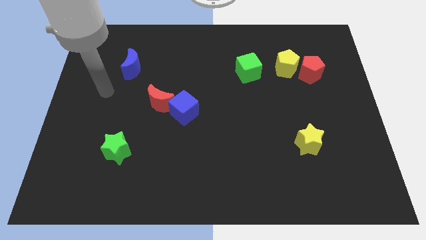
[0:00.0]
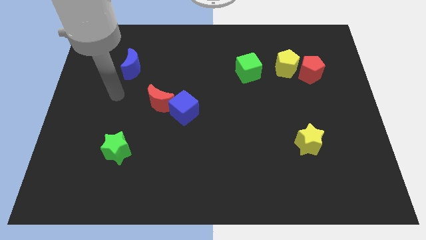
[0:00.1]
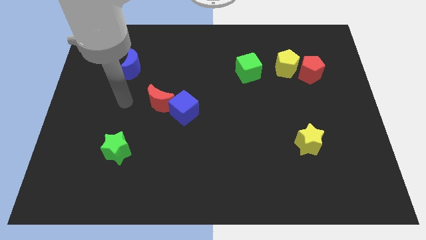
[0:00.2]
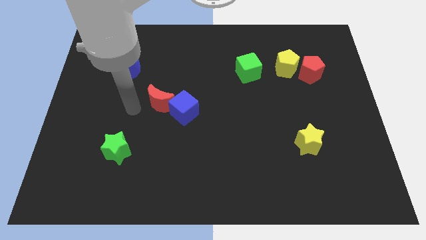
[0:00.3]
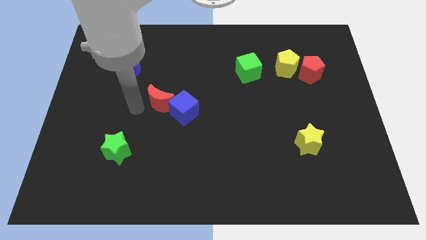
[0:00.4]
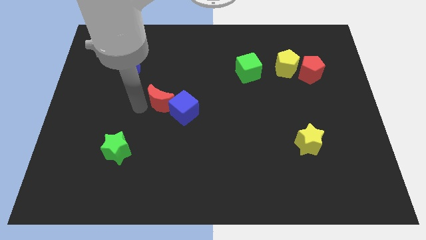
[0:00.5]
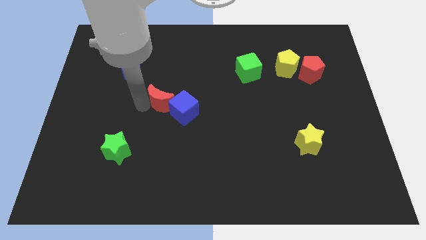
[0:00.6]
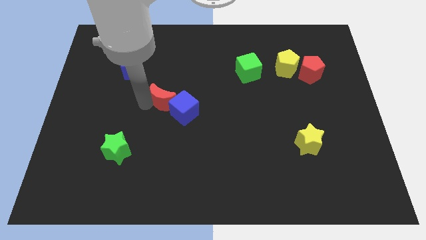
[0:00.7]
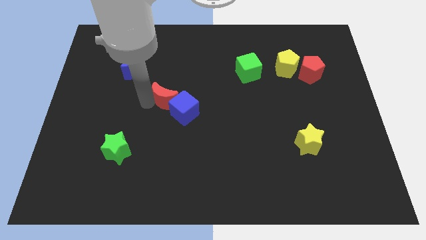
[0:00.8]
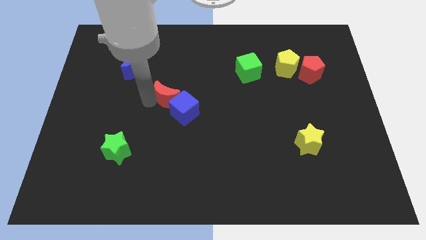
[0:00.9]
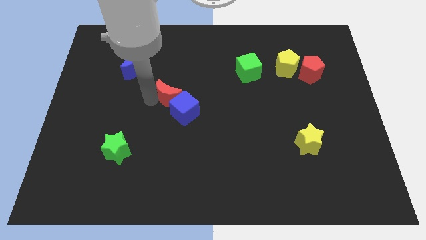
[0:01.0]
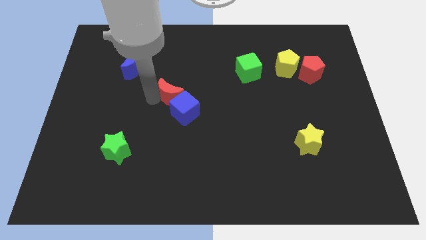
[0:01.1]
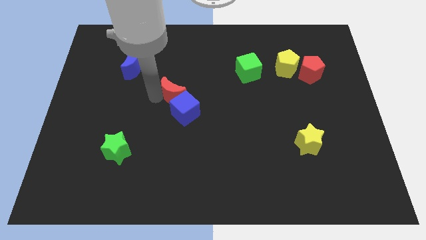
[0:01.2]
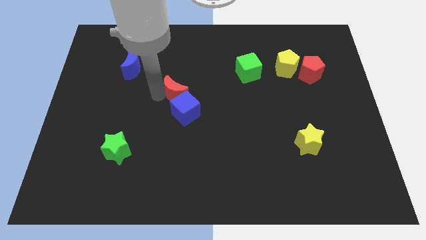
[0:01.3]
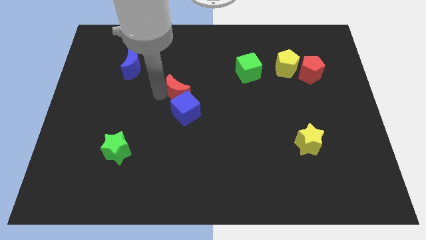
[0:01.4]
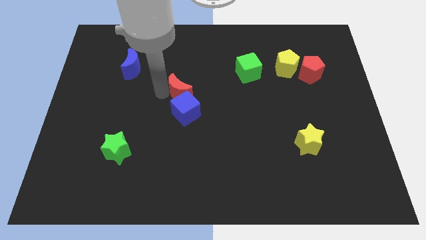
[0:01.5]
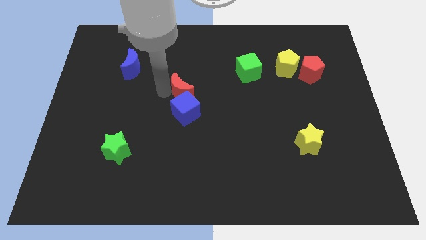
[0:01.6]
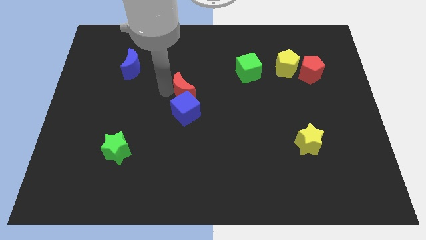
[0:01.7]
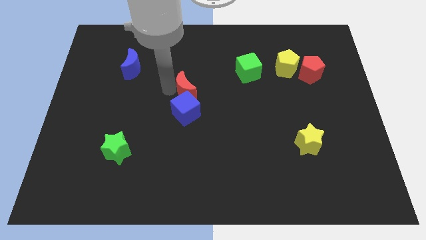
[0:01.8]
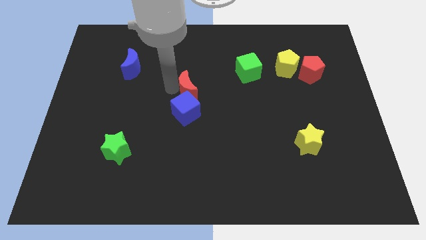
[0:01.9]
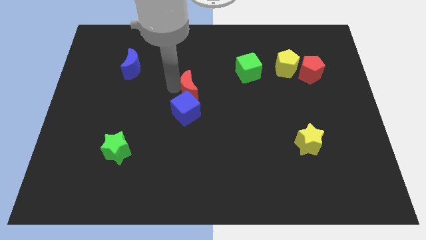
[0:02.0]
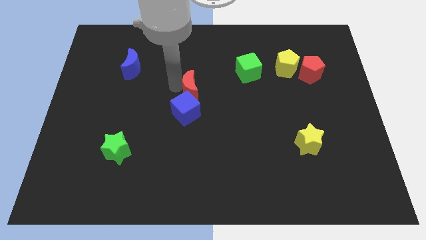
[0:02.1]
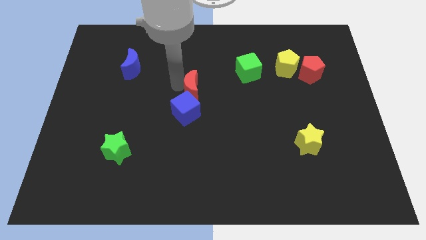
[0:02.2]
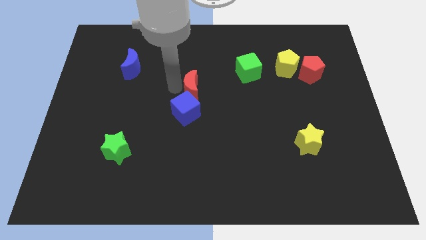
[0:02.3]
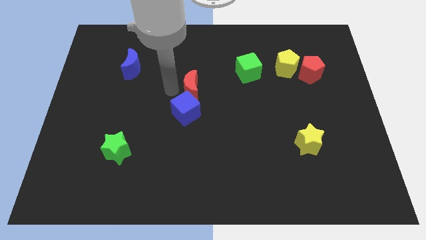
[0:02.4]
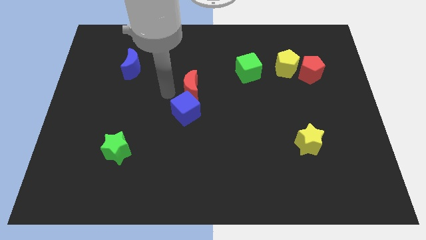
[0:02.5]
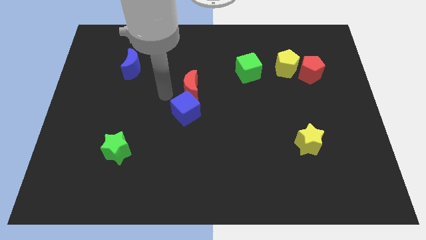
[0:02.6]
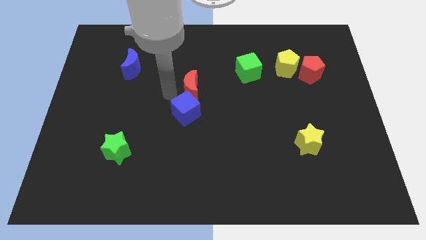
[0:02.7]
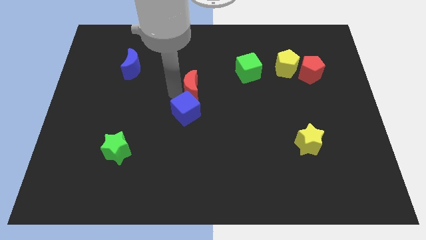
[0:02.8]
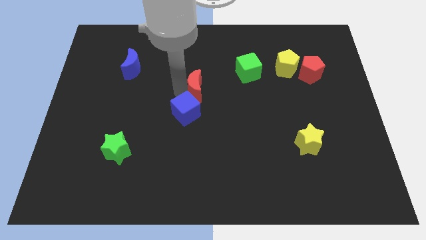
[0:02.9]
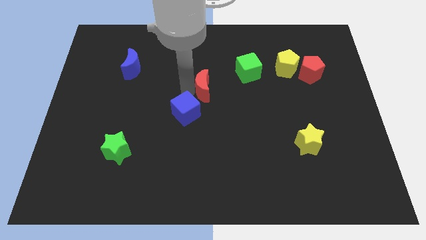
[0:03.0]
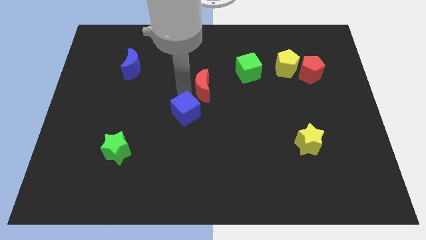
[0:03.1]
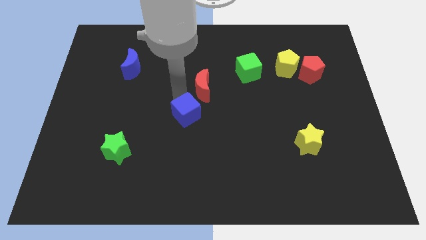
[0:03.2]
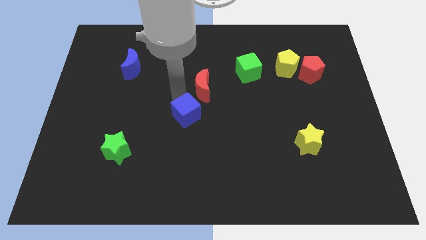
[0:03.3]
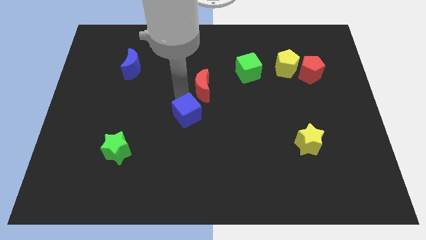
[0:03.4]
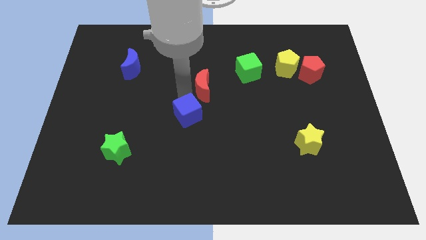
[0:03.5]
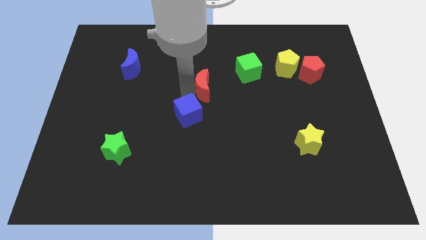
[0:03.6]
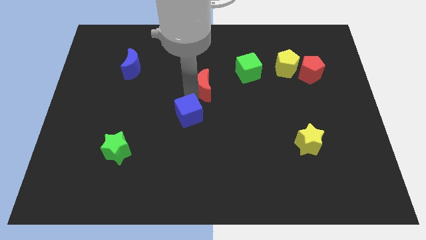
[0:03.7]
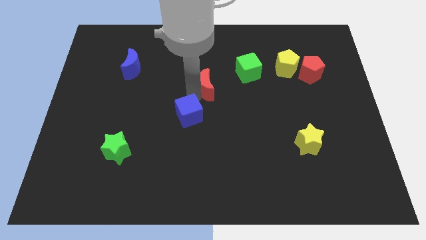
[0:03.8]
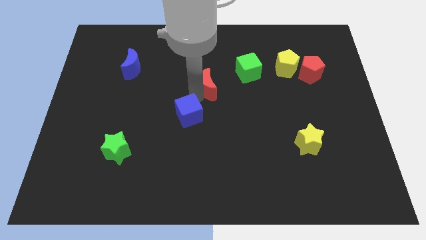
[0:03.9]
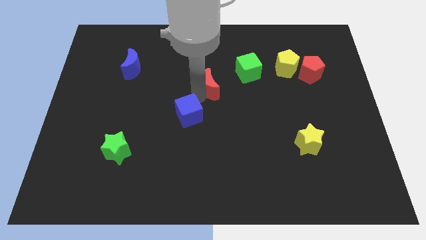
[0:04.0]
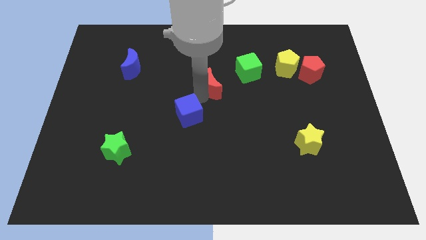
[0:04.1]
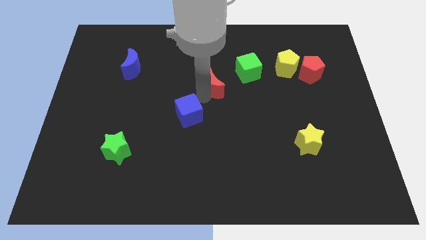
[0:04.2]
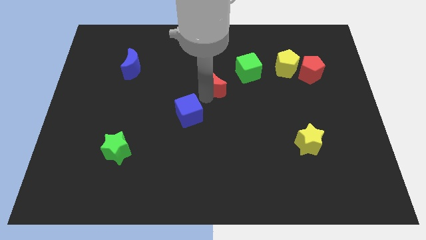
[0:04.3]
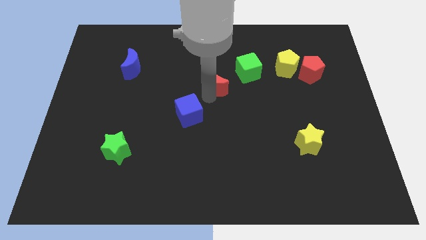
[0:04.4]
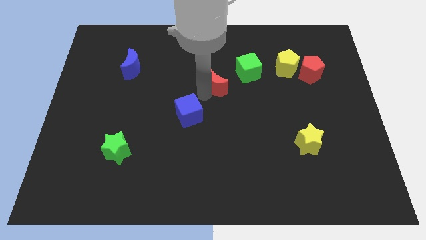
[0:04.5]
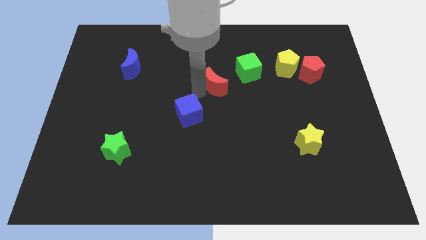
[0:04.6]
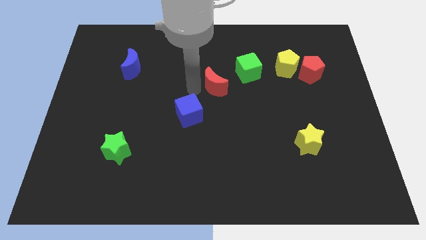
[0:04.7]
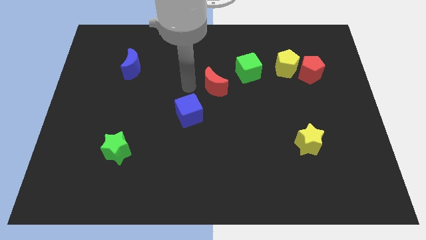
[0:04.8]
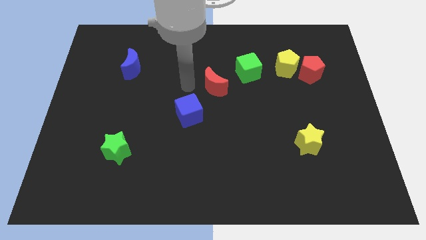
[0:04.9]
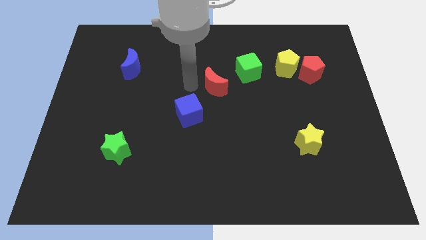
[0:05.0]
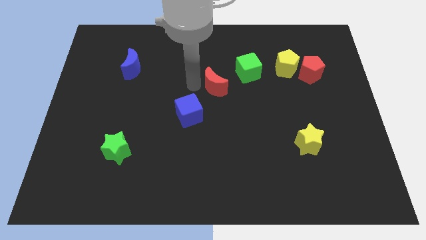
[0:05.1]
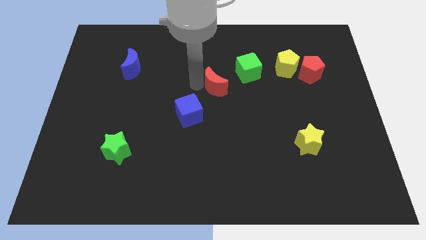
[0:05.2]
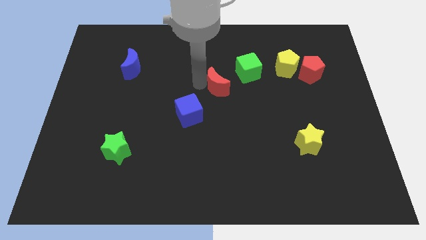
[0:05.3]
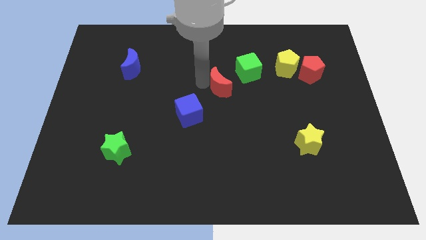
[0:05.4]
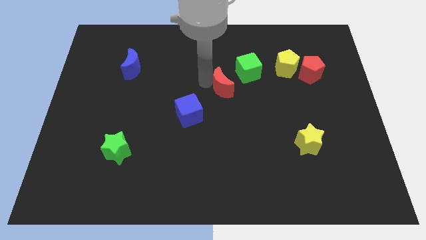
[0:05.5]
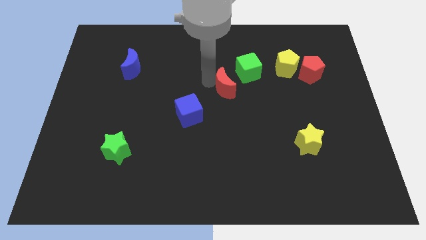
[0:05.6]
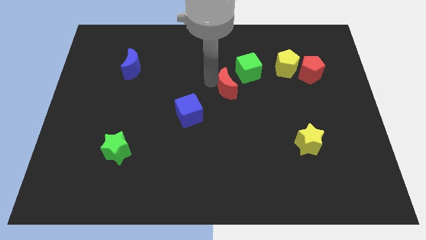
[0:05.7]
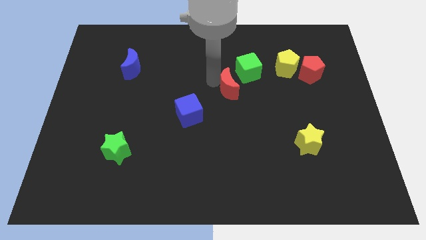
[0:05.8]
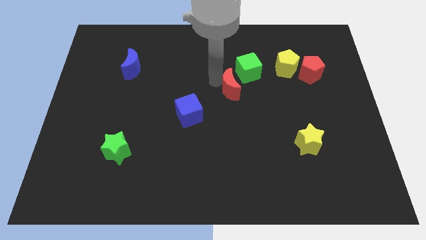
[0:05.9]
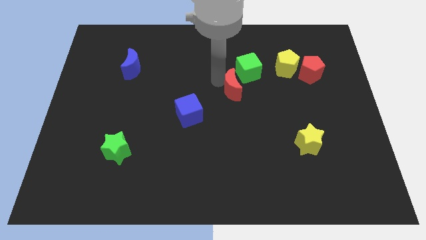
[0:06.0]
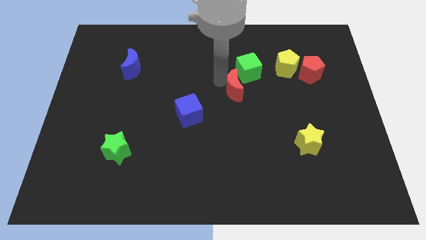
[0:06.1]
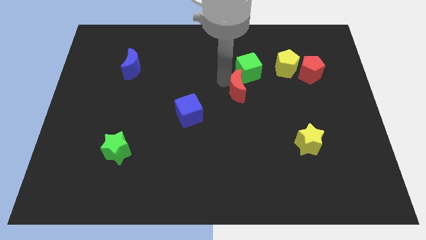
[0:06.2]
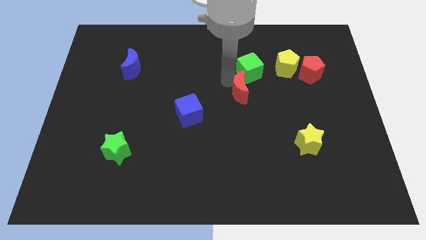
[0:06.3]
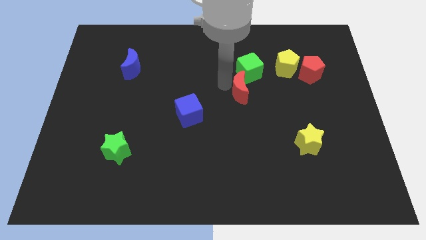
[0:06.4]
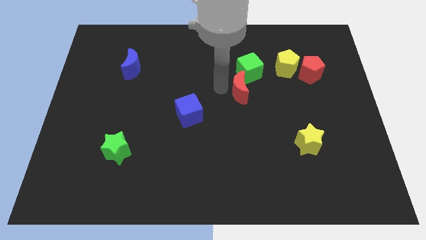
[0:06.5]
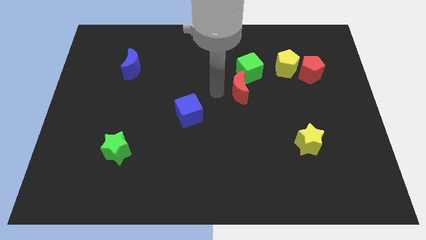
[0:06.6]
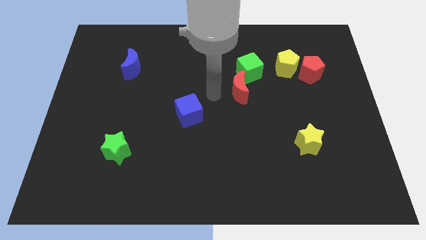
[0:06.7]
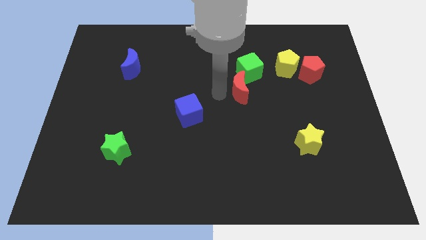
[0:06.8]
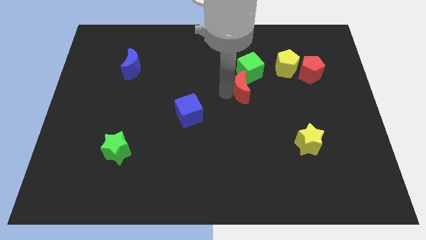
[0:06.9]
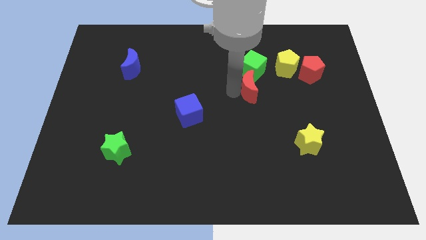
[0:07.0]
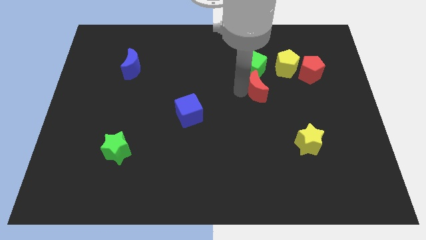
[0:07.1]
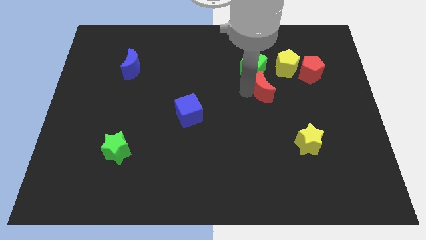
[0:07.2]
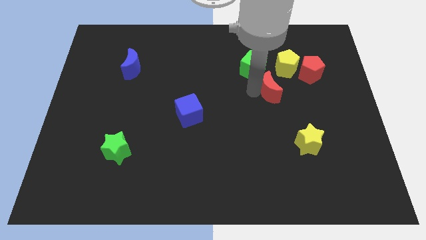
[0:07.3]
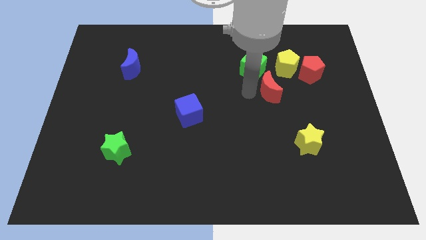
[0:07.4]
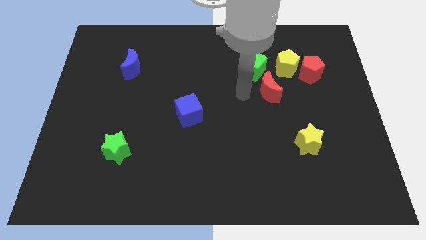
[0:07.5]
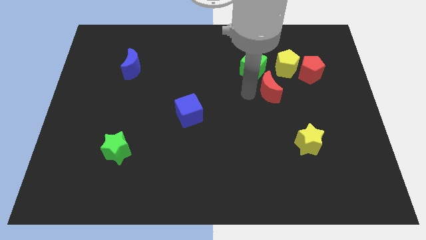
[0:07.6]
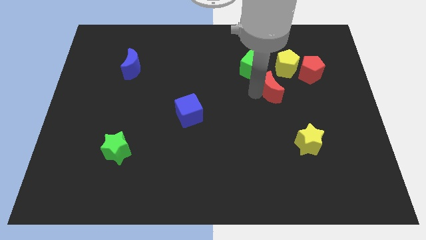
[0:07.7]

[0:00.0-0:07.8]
put the red moon to the bottom left side of the red pentagon

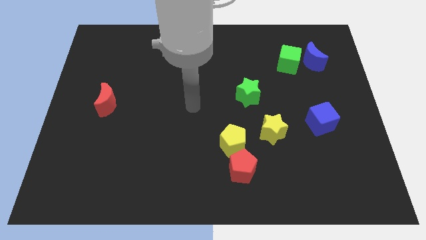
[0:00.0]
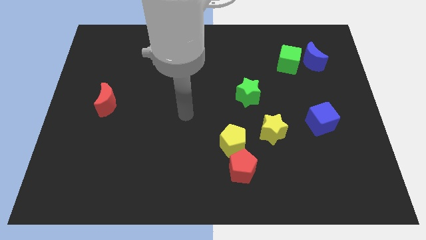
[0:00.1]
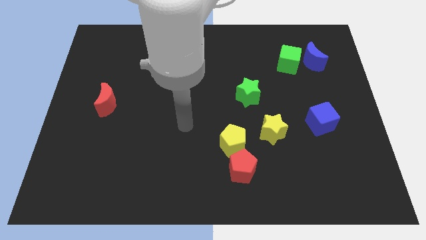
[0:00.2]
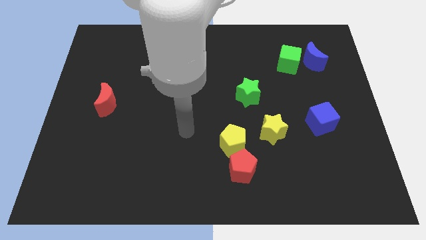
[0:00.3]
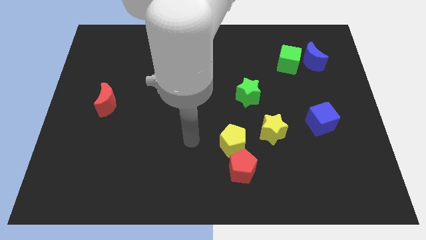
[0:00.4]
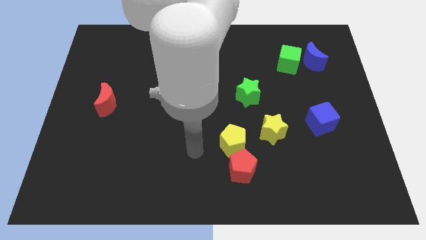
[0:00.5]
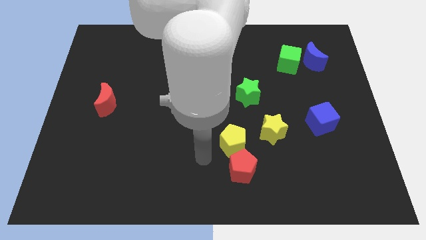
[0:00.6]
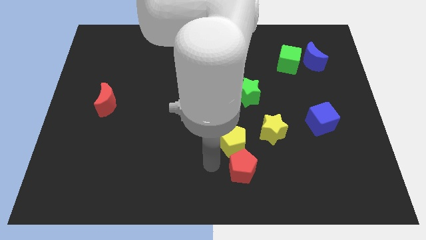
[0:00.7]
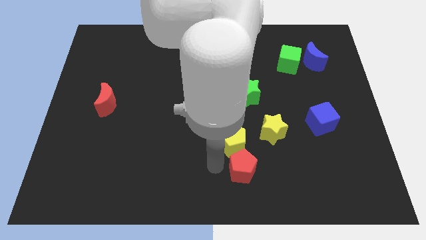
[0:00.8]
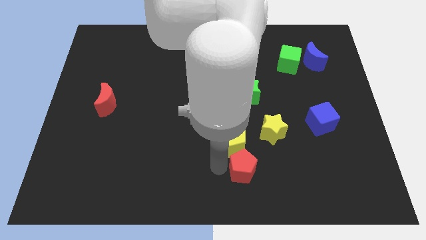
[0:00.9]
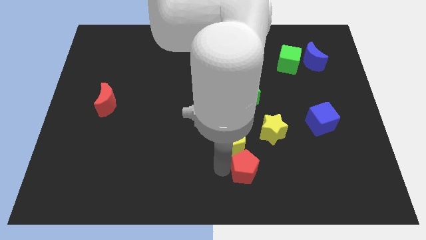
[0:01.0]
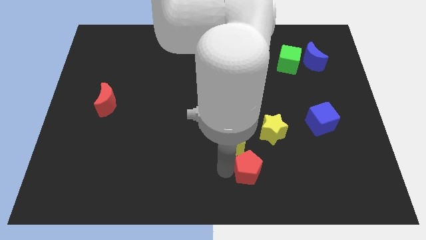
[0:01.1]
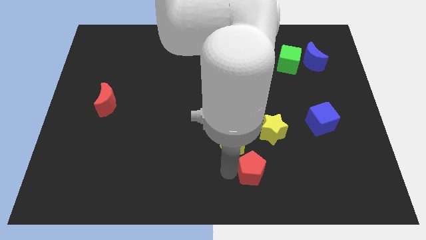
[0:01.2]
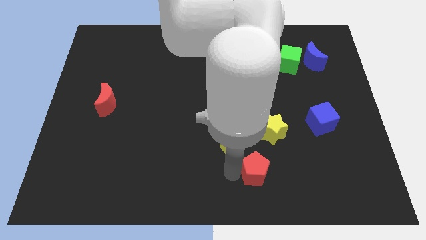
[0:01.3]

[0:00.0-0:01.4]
push the red pentagon below the yellow star
